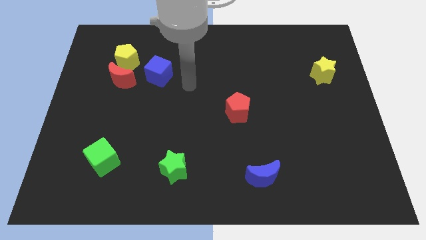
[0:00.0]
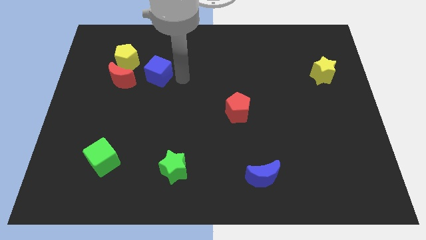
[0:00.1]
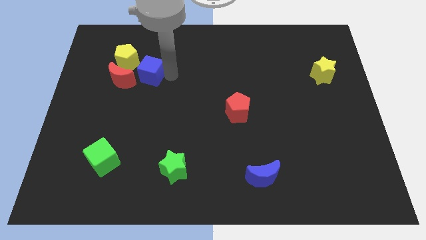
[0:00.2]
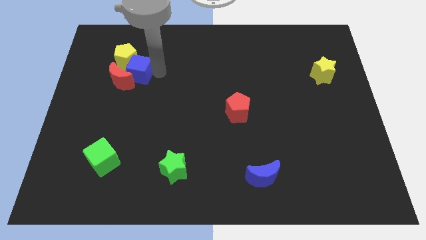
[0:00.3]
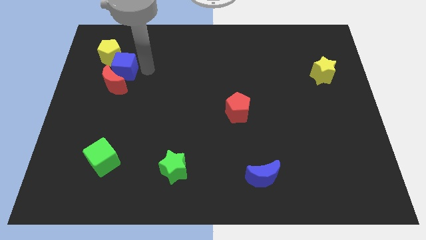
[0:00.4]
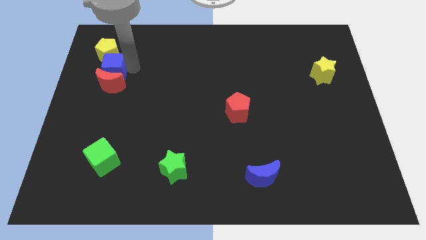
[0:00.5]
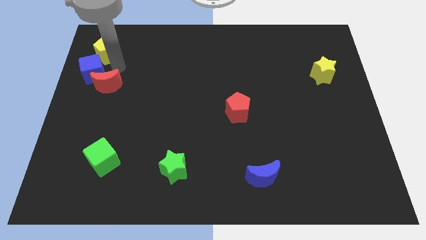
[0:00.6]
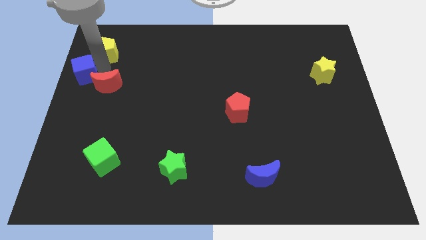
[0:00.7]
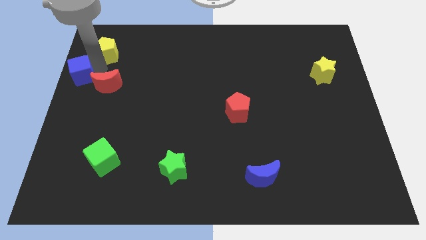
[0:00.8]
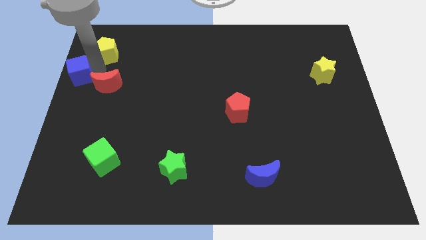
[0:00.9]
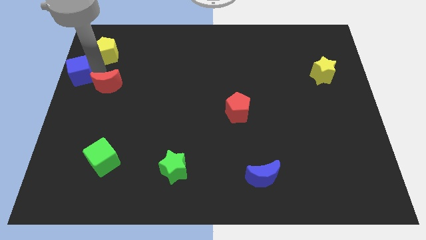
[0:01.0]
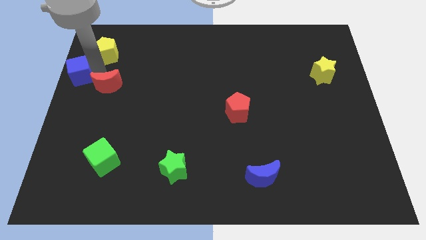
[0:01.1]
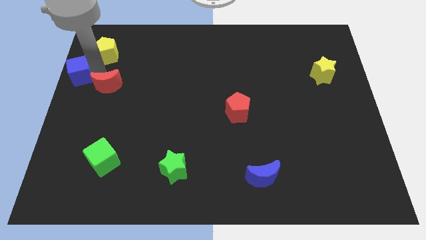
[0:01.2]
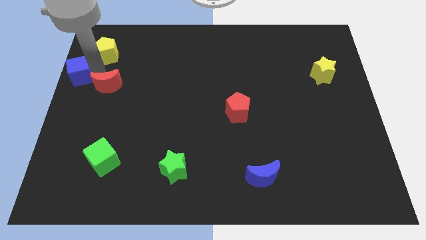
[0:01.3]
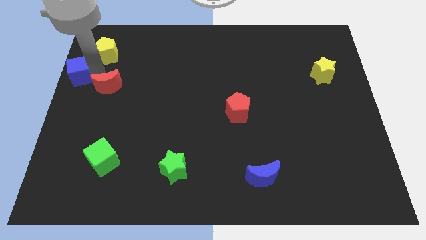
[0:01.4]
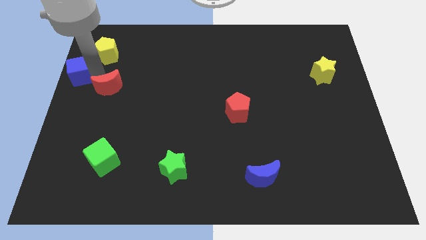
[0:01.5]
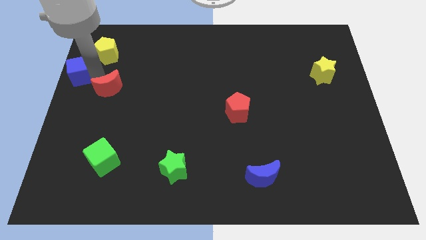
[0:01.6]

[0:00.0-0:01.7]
move the red moon away from the yellow pentagon and blue cube

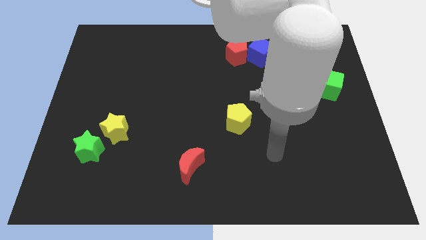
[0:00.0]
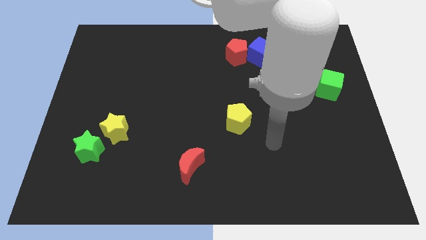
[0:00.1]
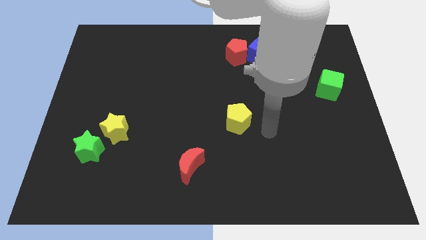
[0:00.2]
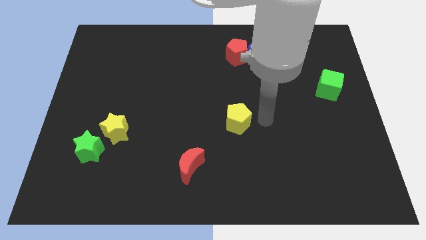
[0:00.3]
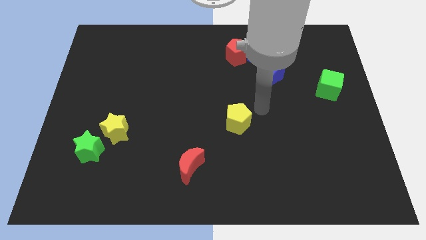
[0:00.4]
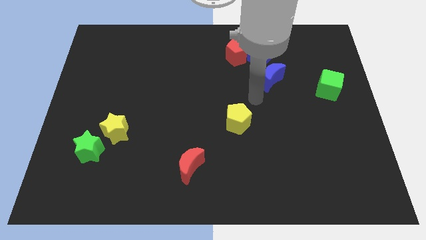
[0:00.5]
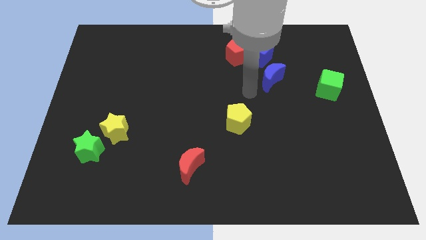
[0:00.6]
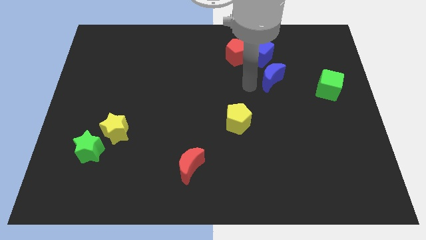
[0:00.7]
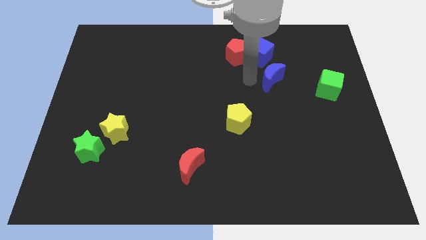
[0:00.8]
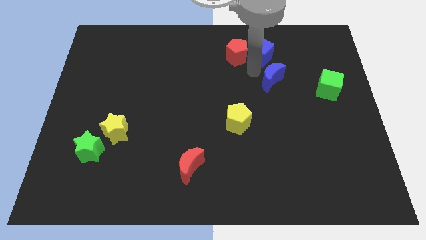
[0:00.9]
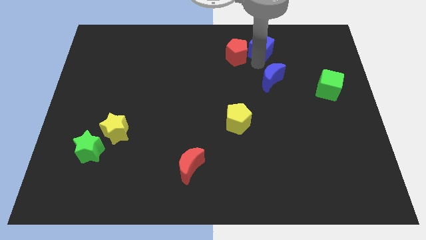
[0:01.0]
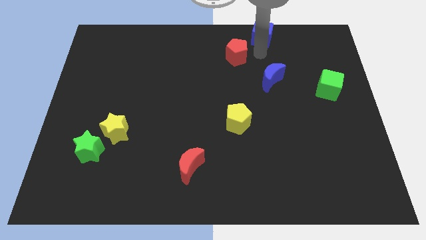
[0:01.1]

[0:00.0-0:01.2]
pull the red pentagon apart from the blue cube

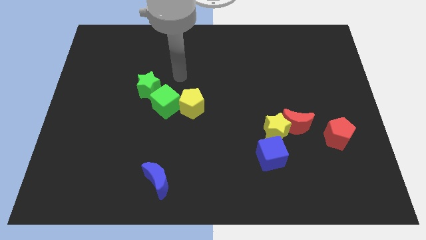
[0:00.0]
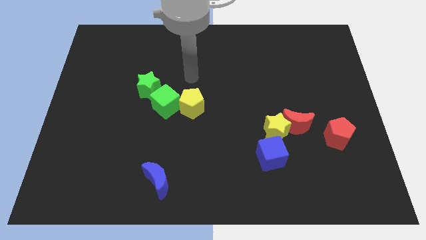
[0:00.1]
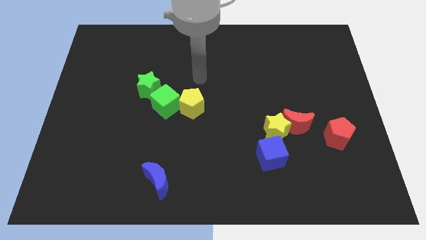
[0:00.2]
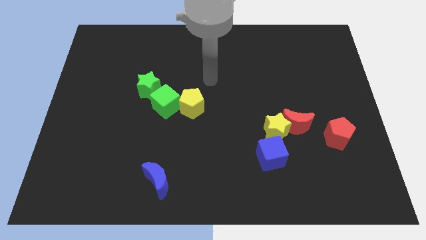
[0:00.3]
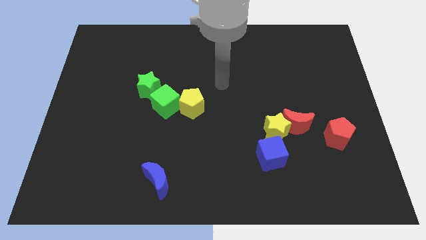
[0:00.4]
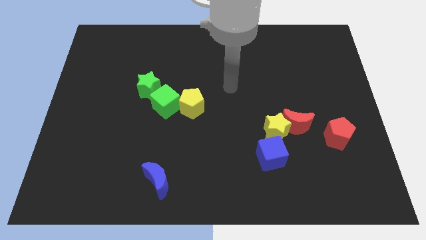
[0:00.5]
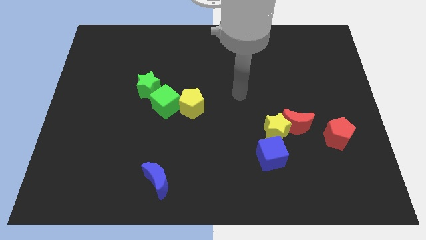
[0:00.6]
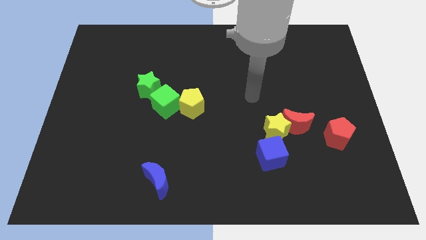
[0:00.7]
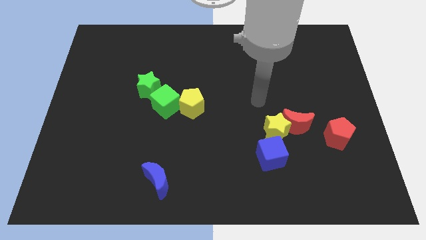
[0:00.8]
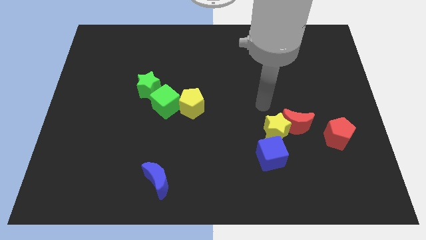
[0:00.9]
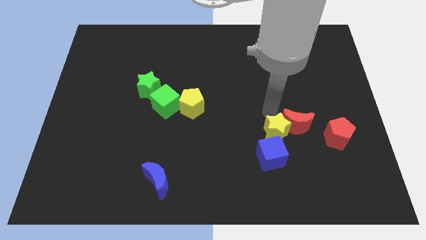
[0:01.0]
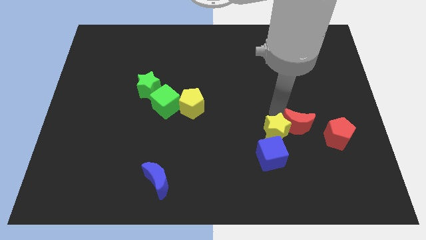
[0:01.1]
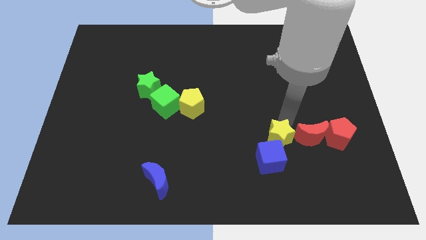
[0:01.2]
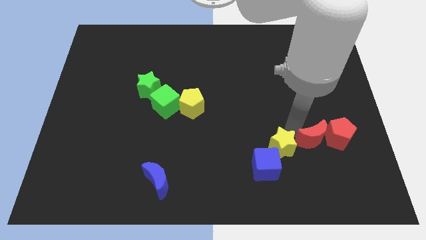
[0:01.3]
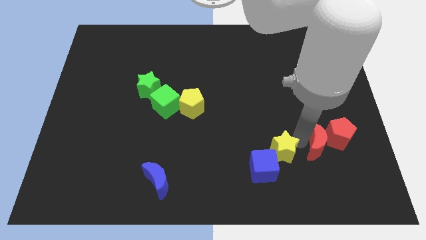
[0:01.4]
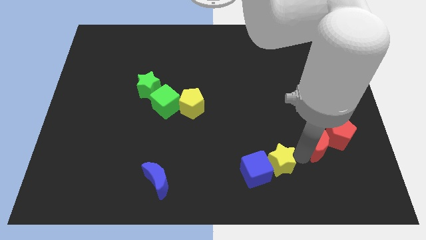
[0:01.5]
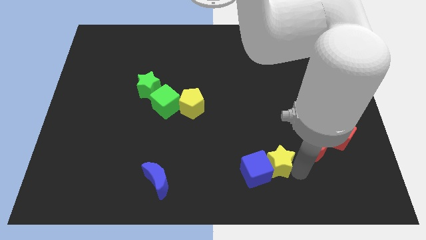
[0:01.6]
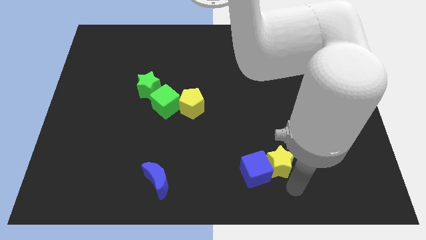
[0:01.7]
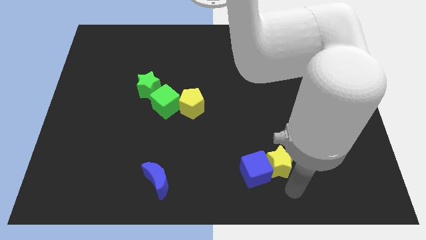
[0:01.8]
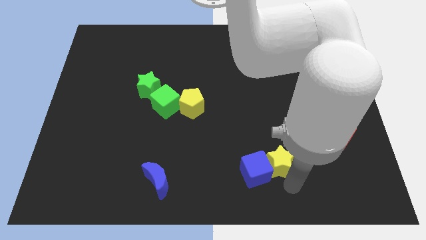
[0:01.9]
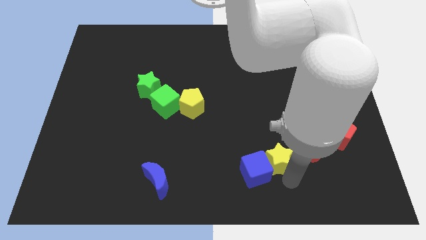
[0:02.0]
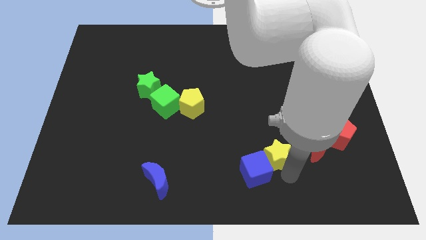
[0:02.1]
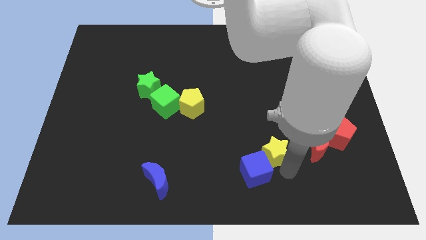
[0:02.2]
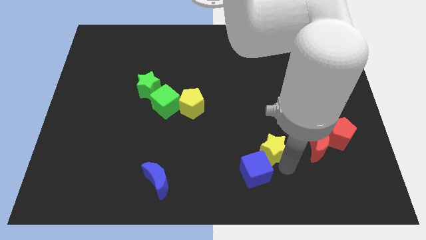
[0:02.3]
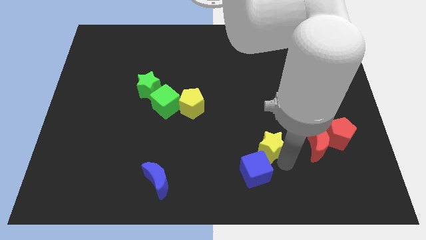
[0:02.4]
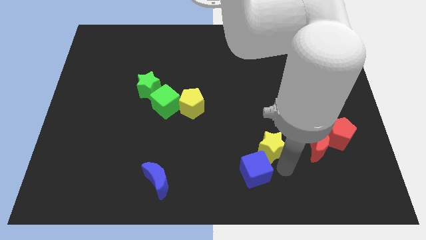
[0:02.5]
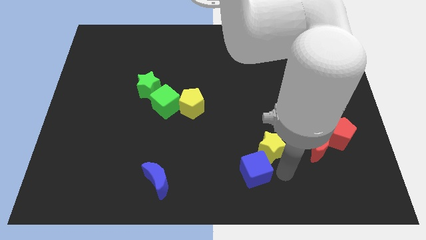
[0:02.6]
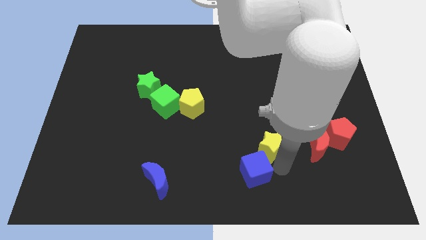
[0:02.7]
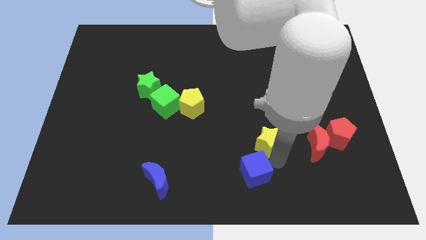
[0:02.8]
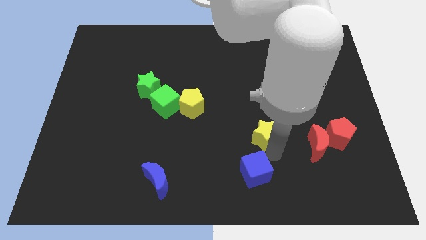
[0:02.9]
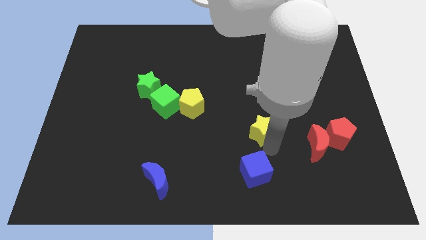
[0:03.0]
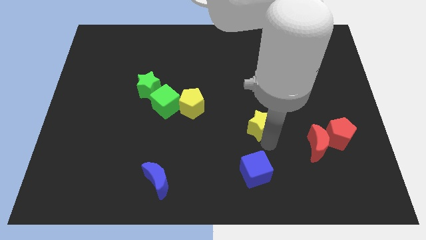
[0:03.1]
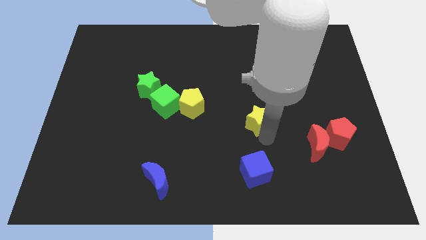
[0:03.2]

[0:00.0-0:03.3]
move the yellow star away from the red moon and blue cube

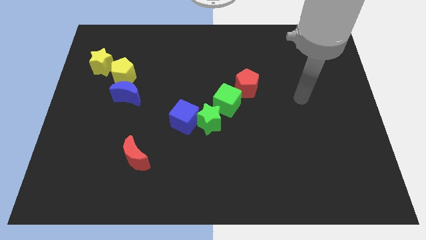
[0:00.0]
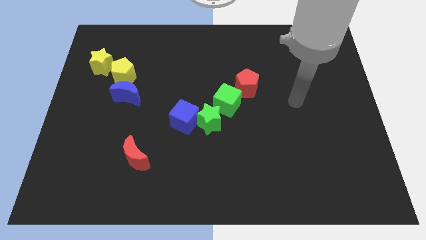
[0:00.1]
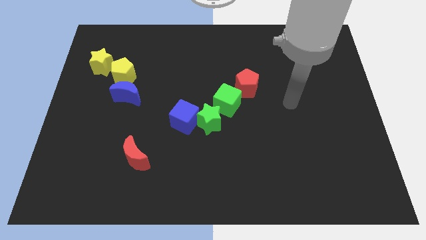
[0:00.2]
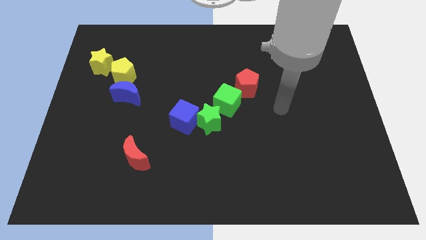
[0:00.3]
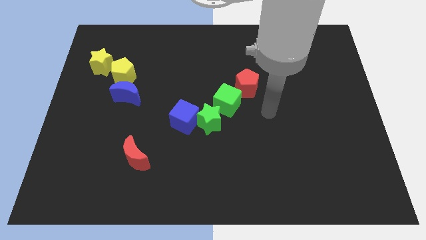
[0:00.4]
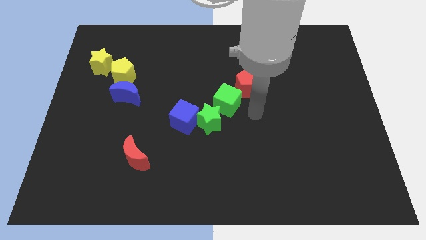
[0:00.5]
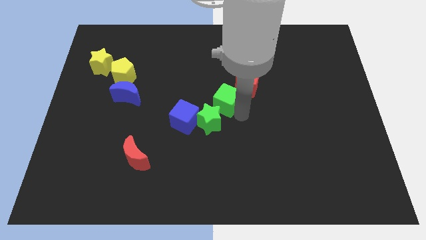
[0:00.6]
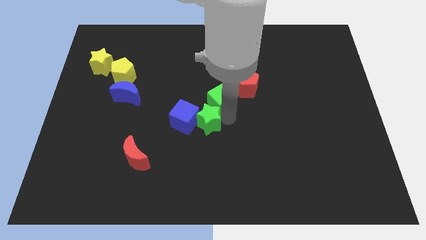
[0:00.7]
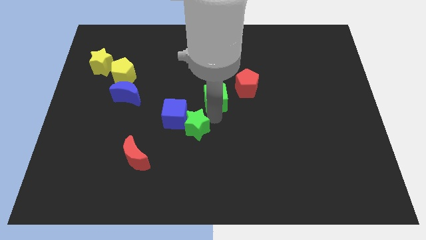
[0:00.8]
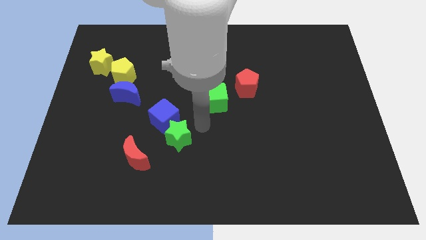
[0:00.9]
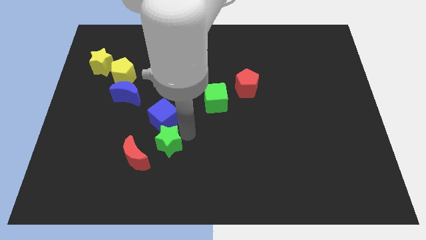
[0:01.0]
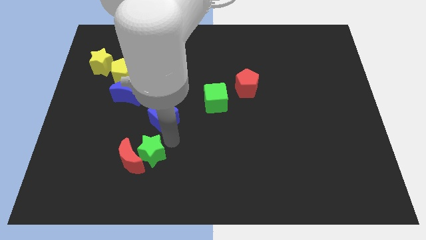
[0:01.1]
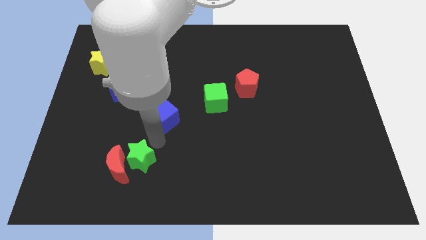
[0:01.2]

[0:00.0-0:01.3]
move the blue cube away from the green star

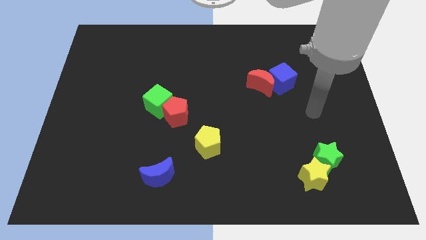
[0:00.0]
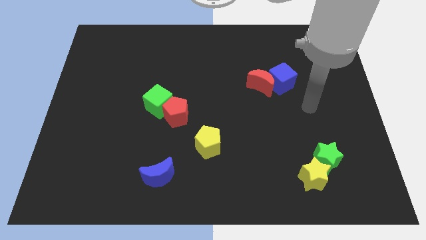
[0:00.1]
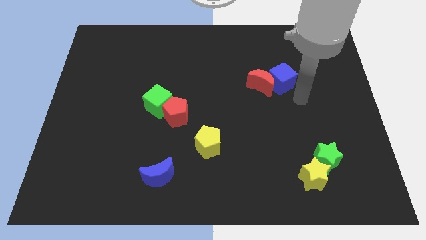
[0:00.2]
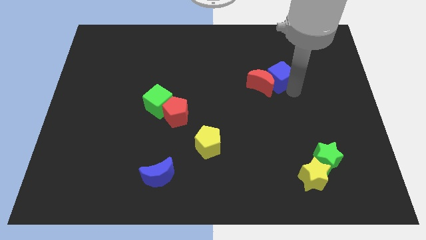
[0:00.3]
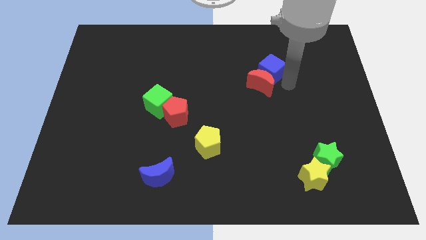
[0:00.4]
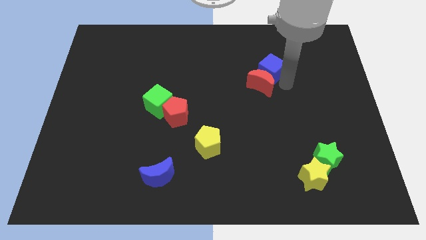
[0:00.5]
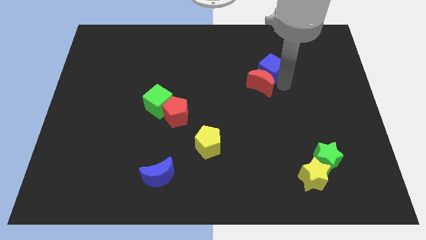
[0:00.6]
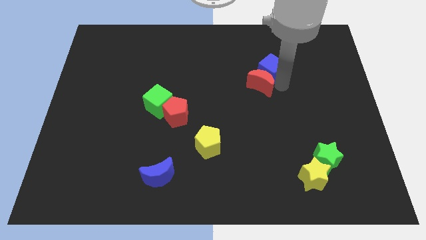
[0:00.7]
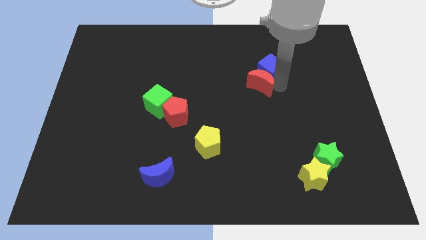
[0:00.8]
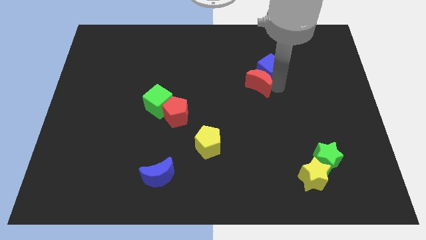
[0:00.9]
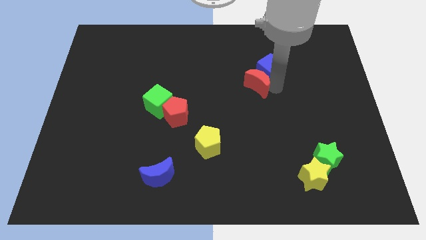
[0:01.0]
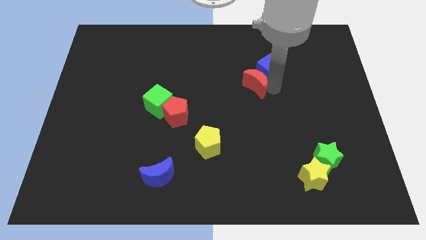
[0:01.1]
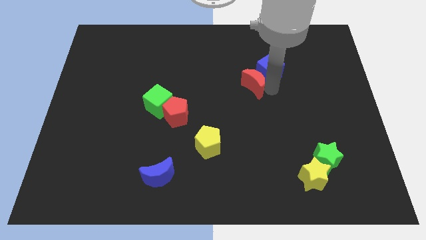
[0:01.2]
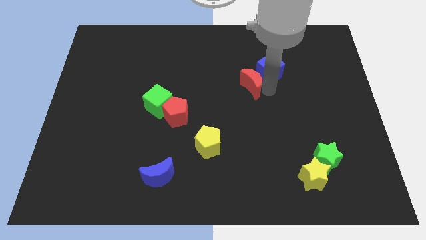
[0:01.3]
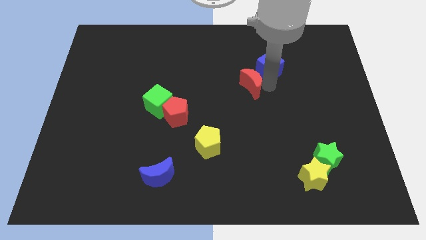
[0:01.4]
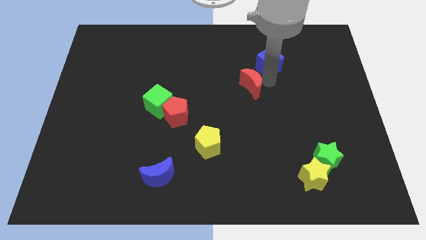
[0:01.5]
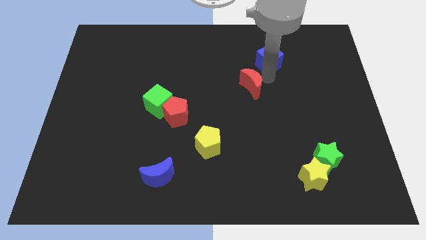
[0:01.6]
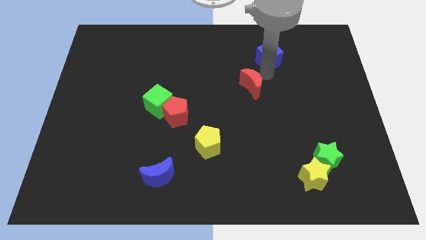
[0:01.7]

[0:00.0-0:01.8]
pull the red moon apart from the blue cube
